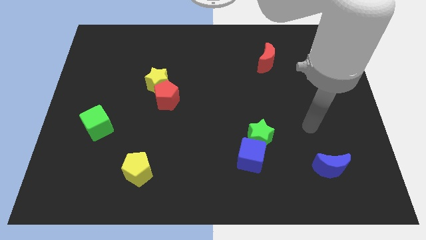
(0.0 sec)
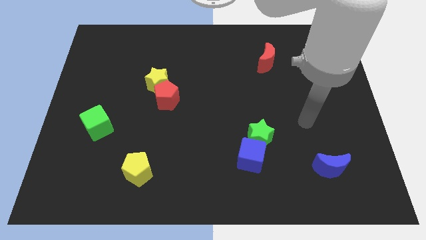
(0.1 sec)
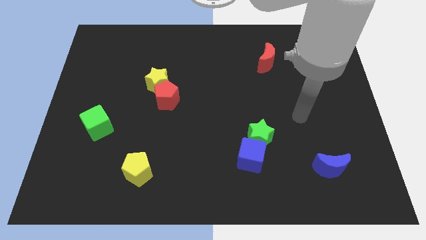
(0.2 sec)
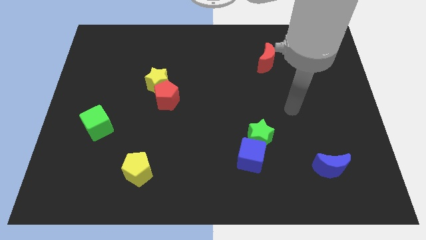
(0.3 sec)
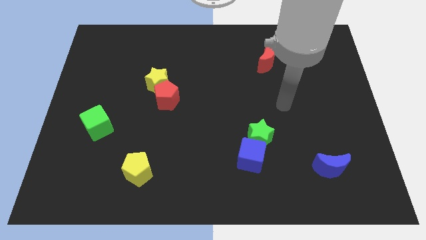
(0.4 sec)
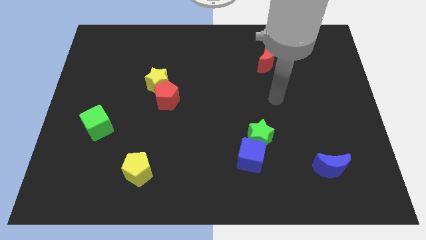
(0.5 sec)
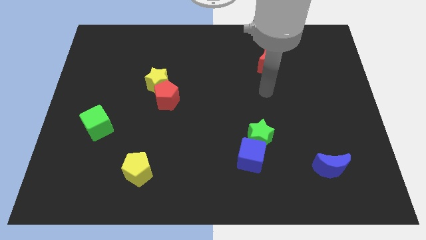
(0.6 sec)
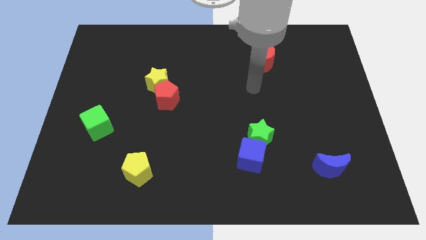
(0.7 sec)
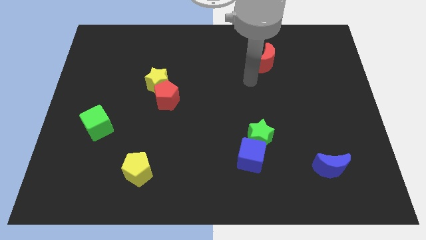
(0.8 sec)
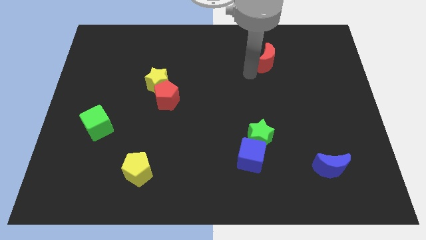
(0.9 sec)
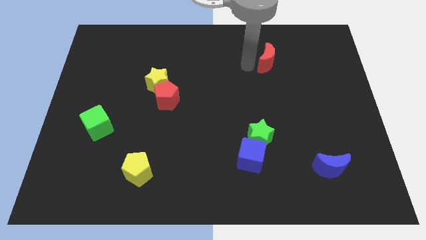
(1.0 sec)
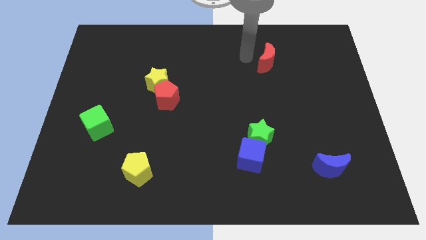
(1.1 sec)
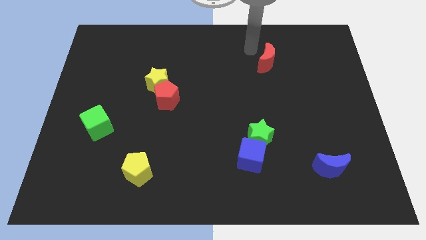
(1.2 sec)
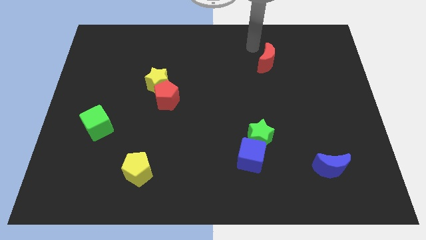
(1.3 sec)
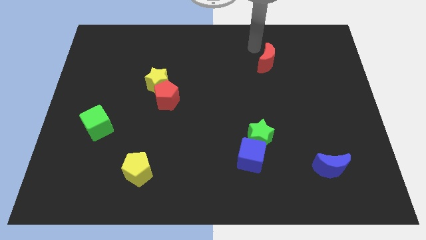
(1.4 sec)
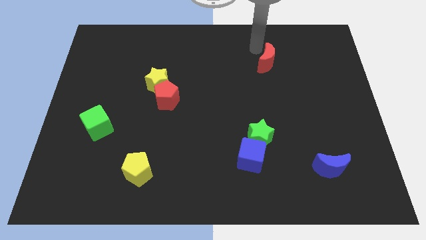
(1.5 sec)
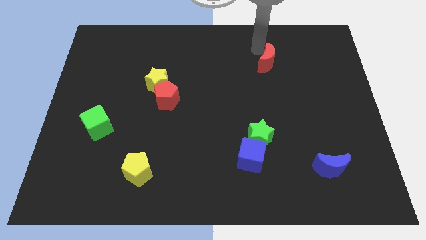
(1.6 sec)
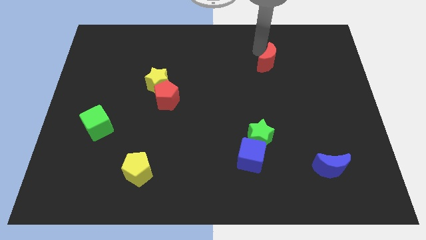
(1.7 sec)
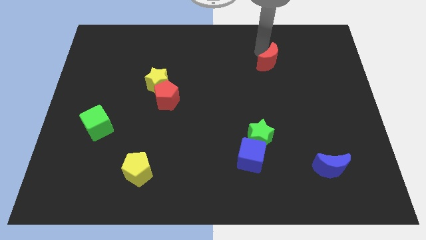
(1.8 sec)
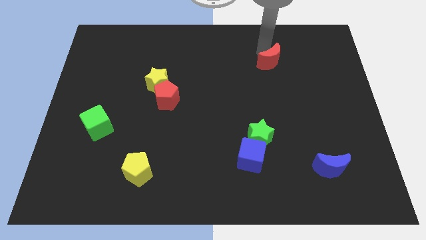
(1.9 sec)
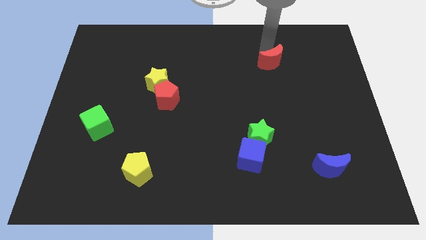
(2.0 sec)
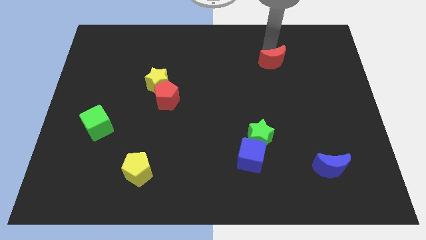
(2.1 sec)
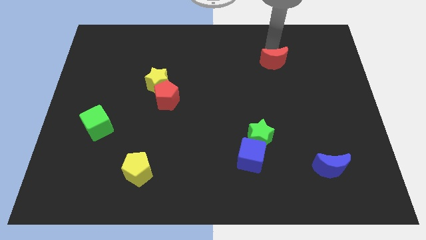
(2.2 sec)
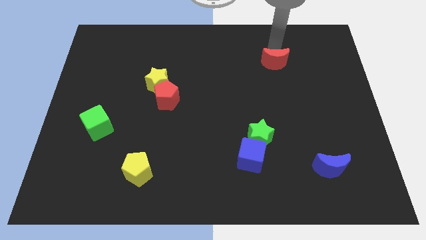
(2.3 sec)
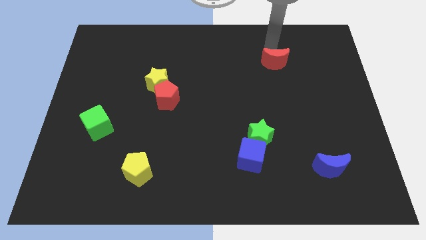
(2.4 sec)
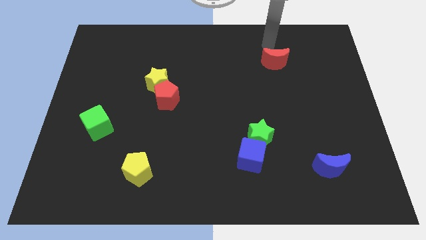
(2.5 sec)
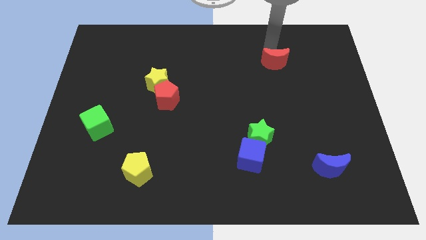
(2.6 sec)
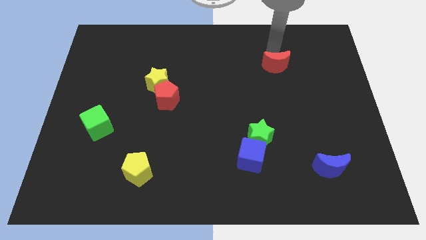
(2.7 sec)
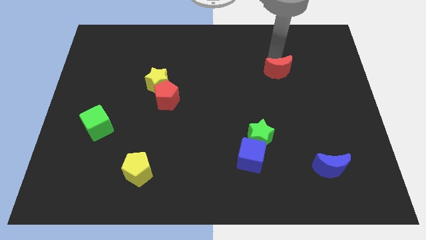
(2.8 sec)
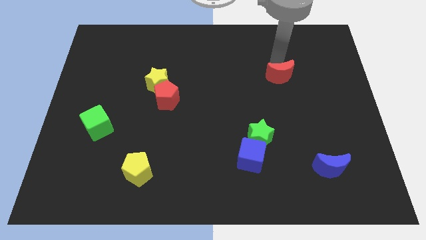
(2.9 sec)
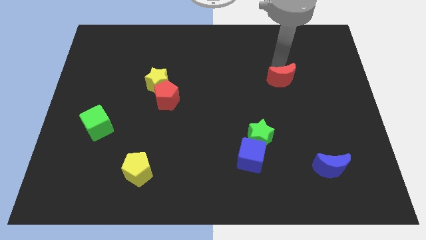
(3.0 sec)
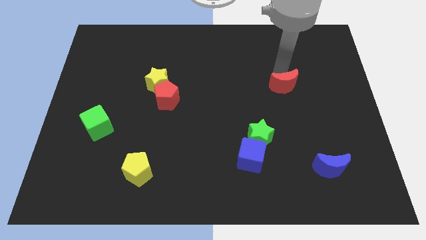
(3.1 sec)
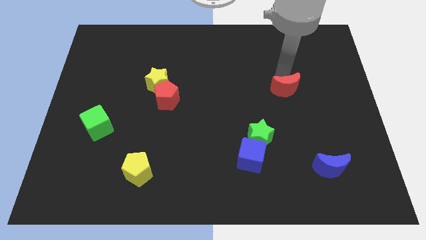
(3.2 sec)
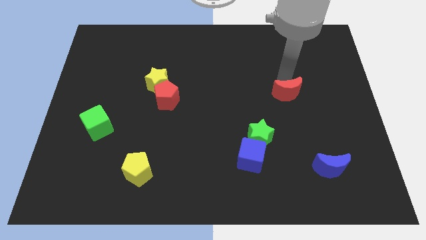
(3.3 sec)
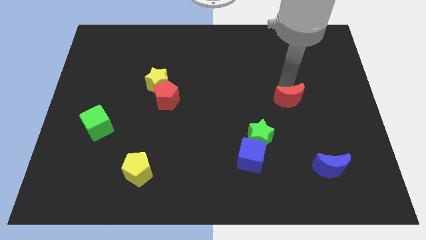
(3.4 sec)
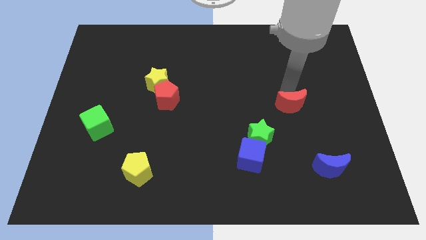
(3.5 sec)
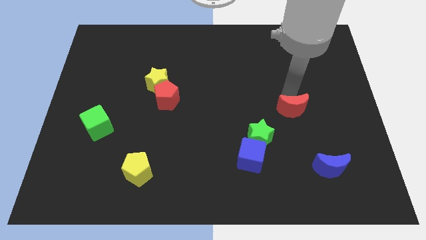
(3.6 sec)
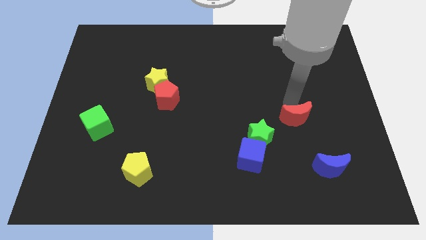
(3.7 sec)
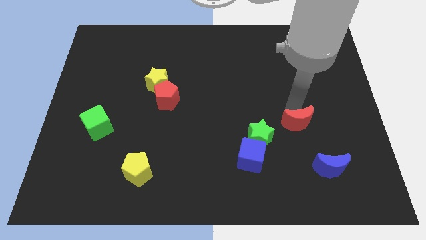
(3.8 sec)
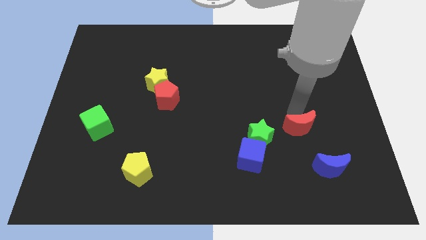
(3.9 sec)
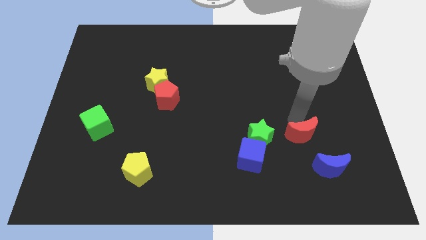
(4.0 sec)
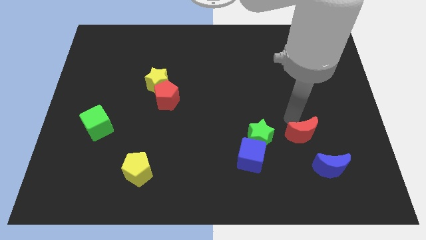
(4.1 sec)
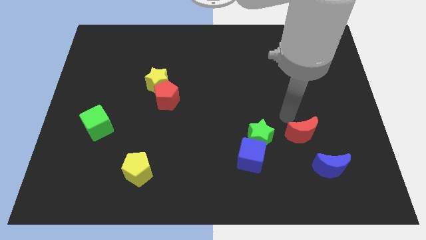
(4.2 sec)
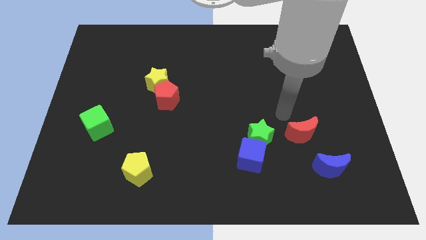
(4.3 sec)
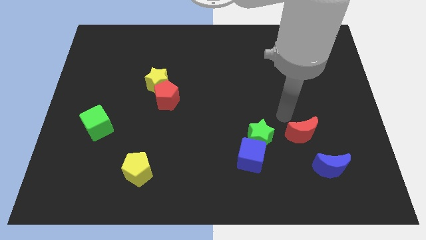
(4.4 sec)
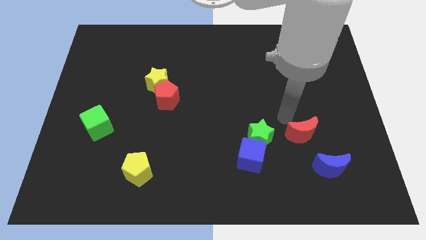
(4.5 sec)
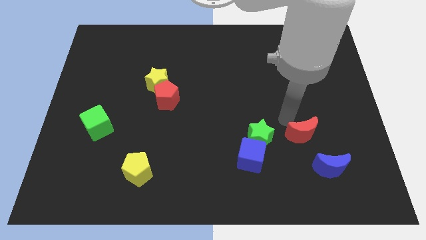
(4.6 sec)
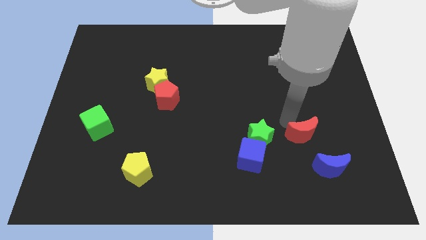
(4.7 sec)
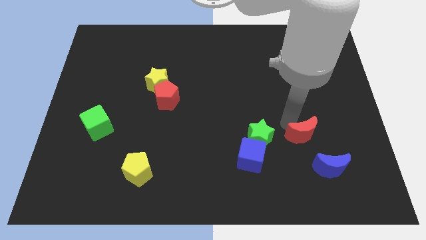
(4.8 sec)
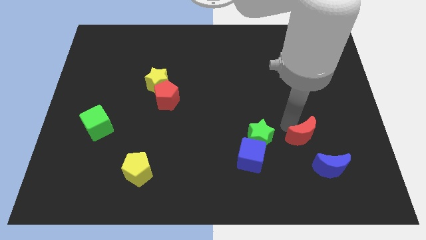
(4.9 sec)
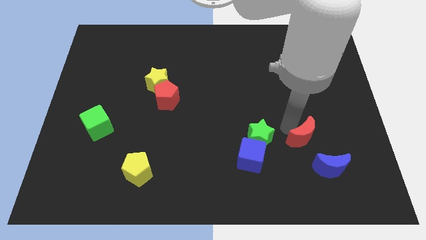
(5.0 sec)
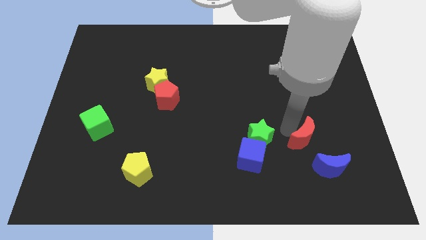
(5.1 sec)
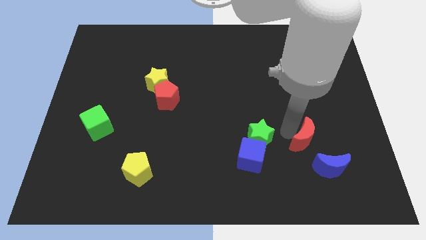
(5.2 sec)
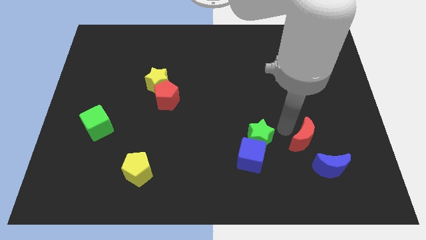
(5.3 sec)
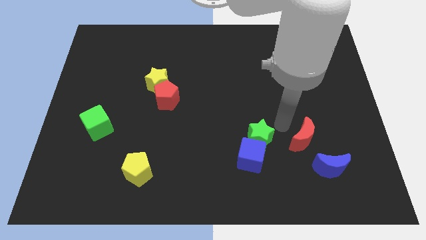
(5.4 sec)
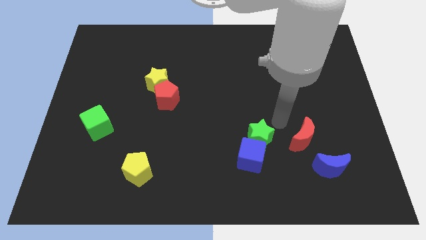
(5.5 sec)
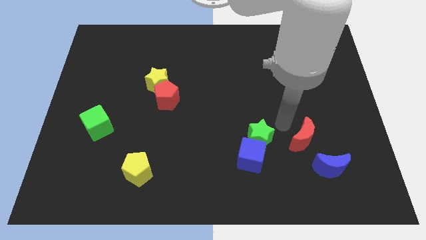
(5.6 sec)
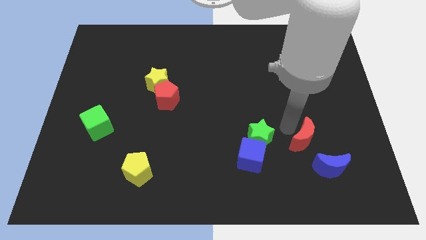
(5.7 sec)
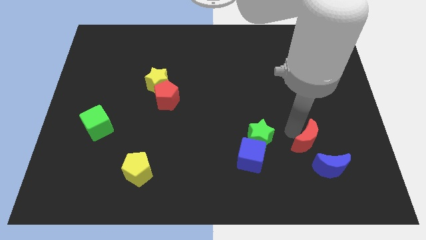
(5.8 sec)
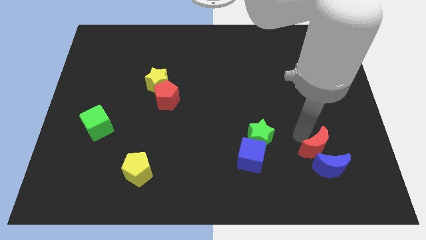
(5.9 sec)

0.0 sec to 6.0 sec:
push the red moon towards the blue moon

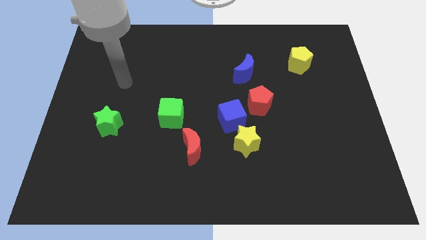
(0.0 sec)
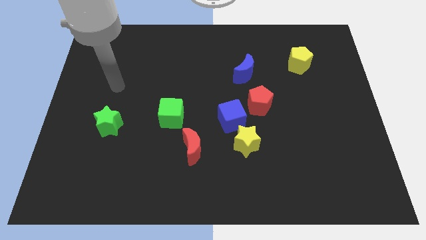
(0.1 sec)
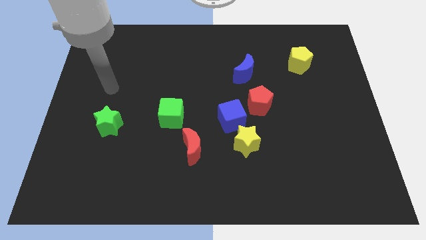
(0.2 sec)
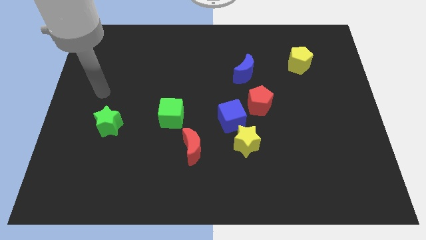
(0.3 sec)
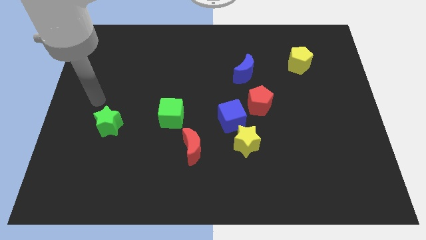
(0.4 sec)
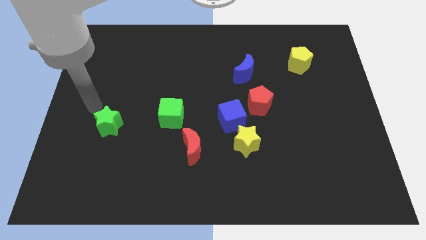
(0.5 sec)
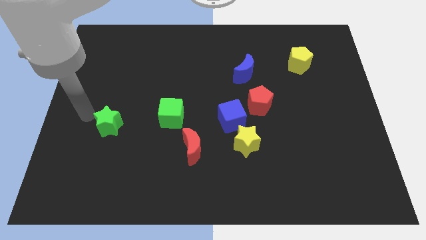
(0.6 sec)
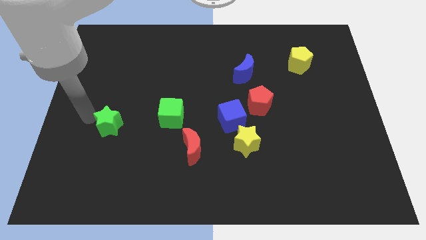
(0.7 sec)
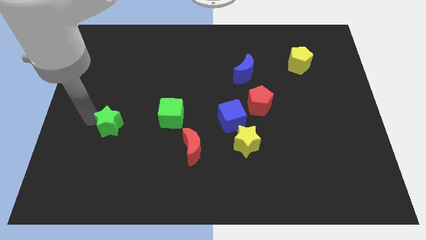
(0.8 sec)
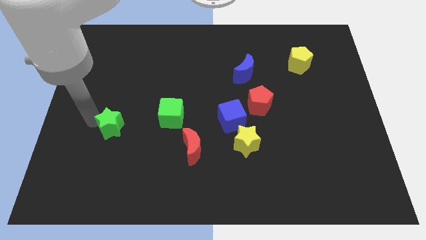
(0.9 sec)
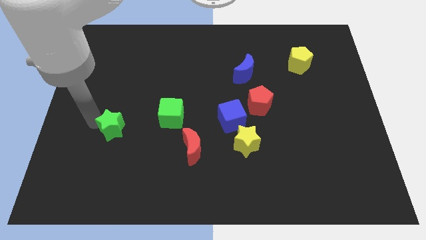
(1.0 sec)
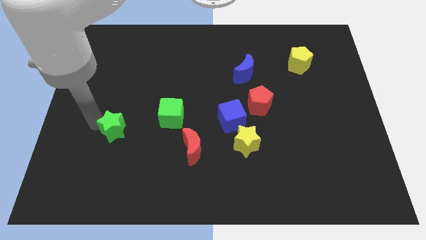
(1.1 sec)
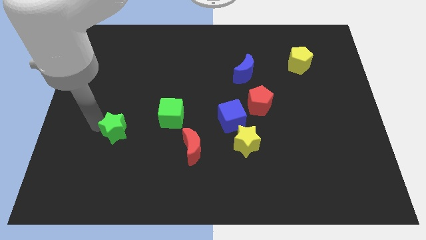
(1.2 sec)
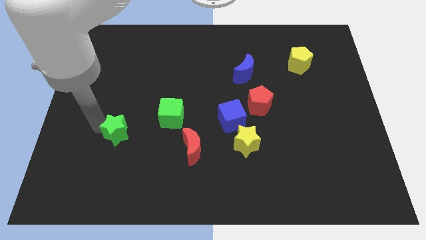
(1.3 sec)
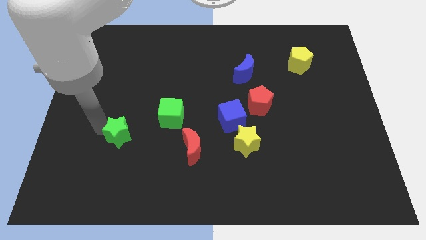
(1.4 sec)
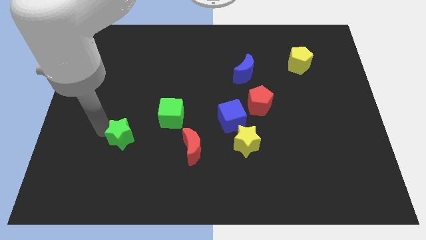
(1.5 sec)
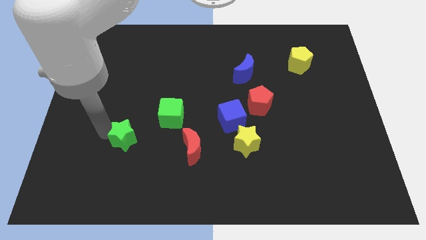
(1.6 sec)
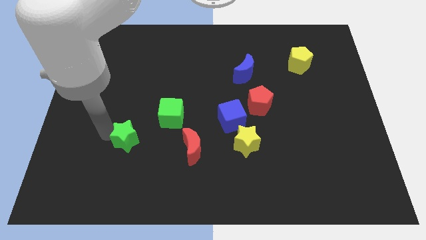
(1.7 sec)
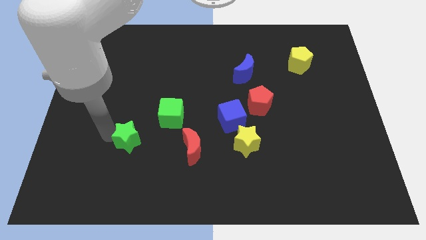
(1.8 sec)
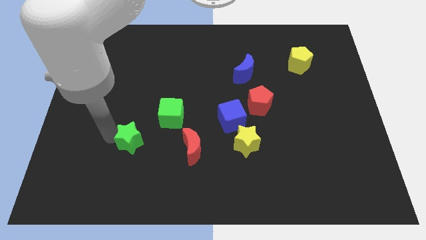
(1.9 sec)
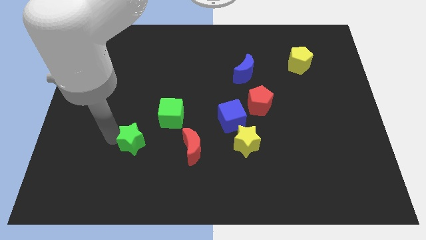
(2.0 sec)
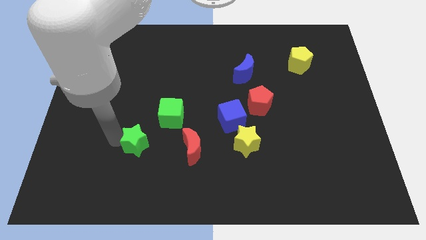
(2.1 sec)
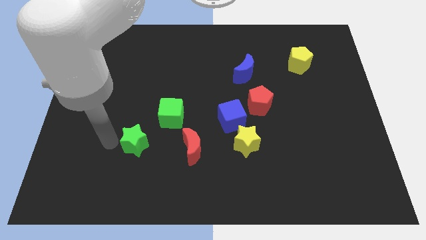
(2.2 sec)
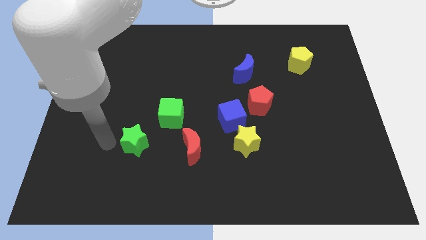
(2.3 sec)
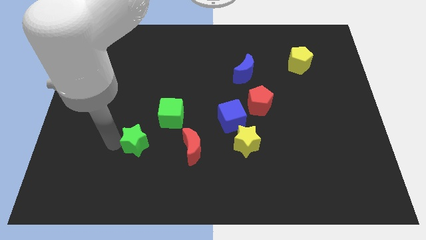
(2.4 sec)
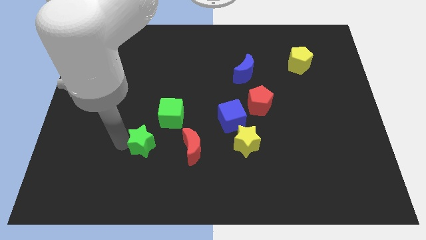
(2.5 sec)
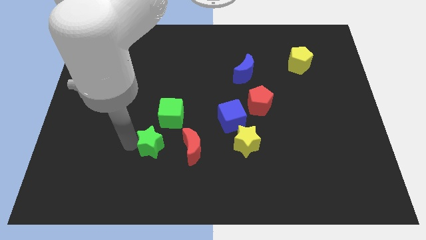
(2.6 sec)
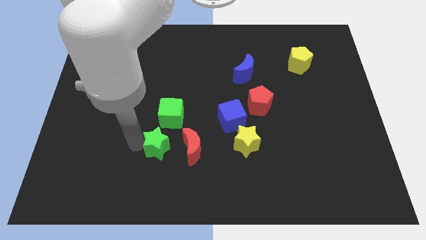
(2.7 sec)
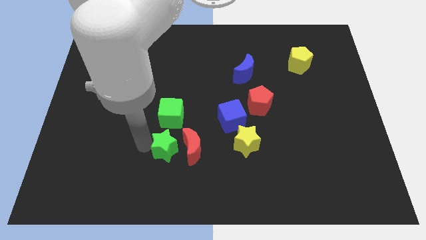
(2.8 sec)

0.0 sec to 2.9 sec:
push the green star towards the red moon
